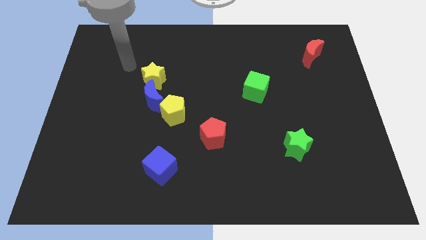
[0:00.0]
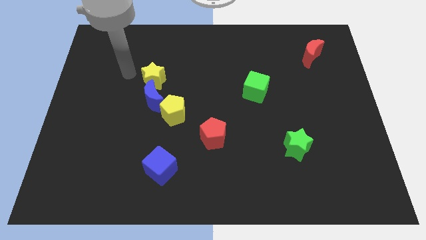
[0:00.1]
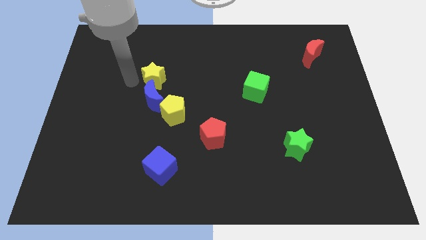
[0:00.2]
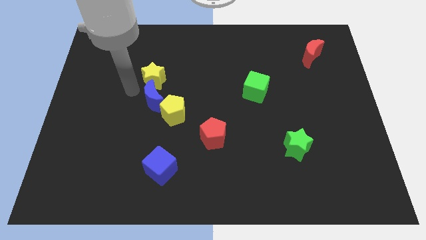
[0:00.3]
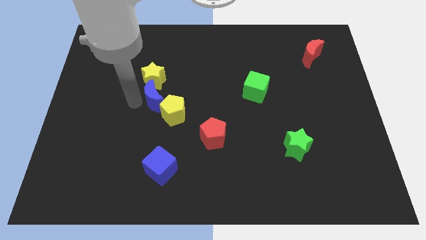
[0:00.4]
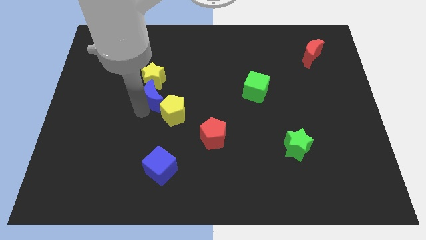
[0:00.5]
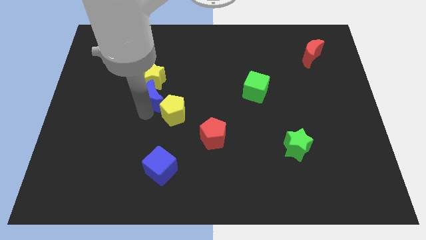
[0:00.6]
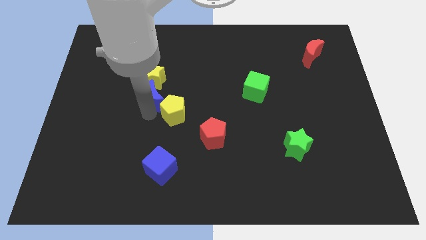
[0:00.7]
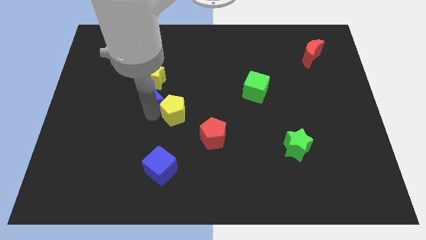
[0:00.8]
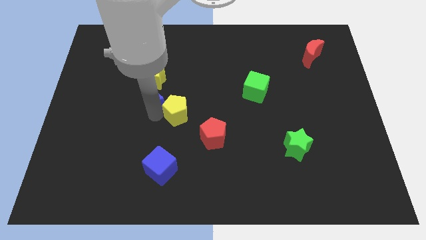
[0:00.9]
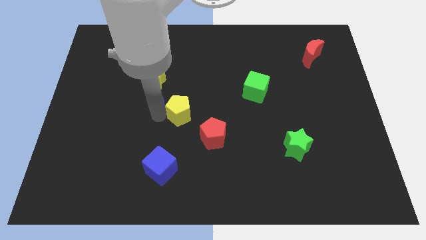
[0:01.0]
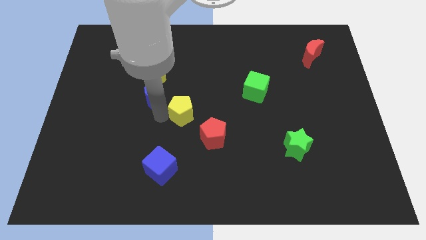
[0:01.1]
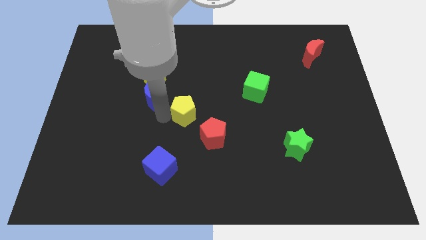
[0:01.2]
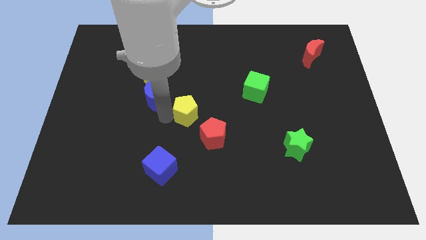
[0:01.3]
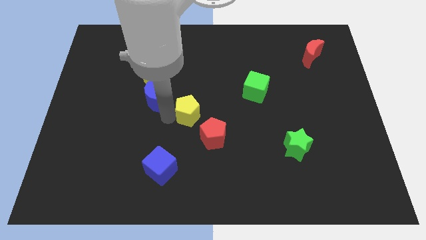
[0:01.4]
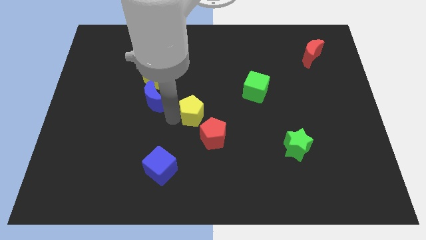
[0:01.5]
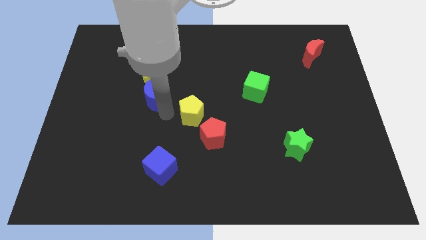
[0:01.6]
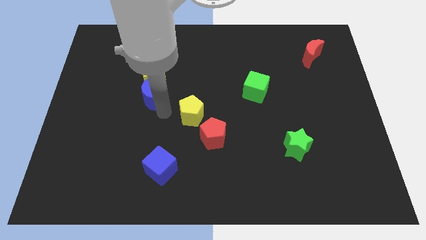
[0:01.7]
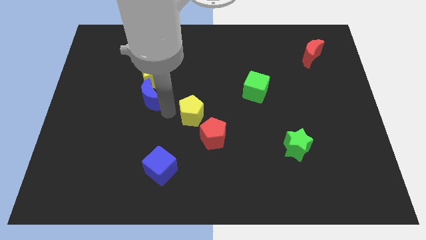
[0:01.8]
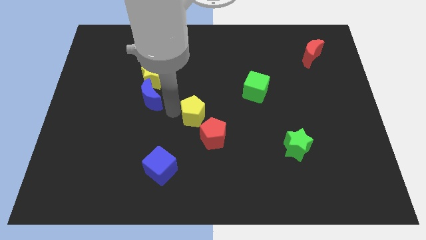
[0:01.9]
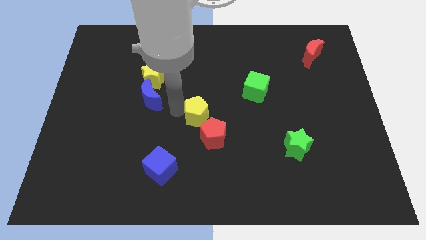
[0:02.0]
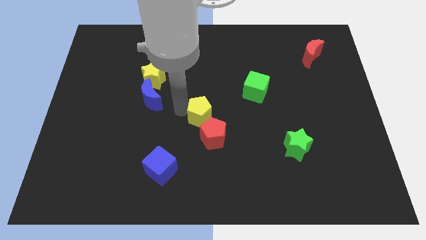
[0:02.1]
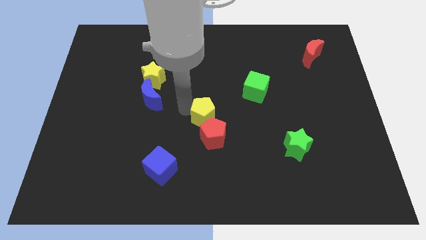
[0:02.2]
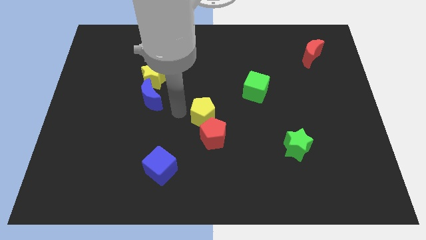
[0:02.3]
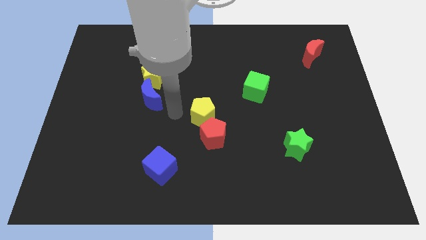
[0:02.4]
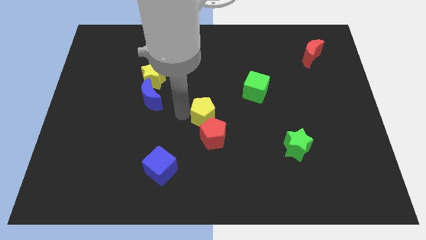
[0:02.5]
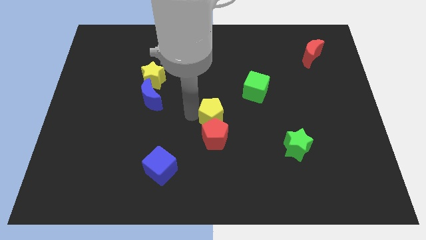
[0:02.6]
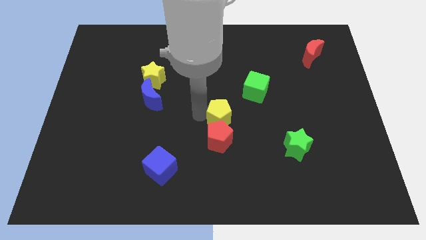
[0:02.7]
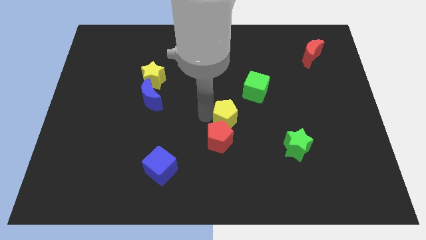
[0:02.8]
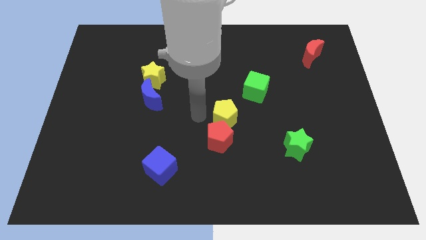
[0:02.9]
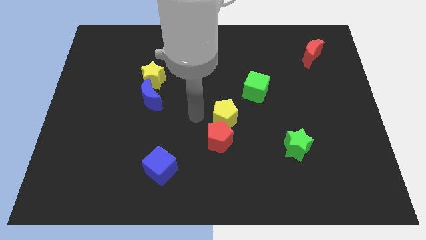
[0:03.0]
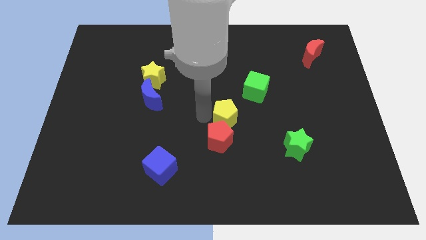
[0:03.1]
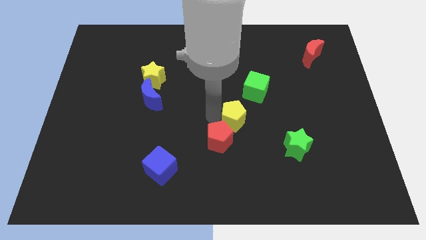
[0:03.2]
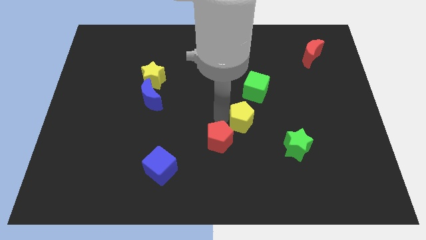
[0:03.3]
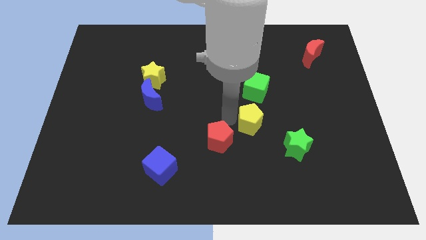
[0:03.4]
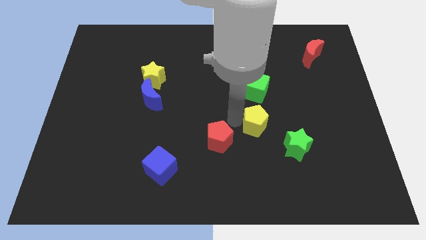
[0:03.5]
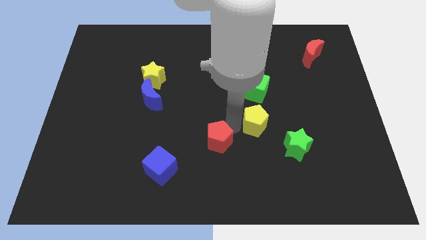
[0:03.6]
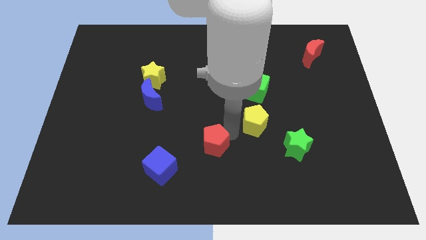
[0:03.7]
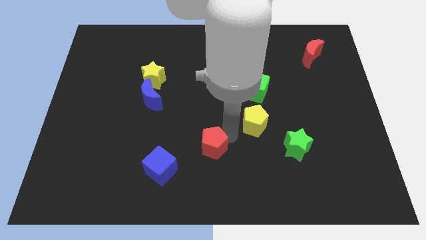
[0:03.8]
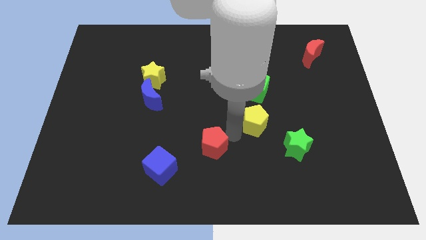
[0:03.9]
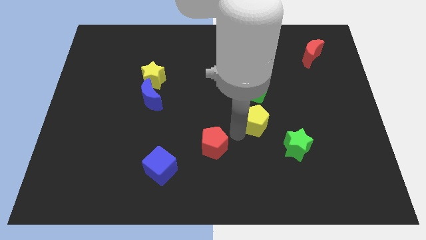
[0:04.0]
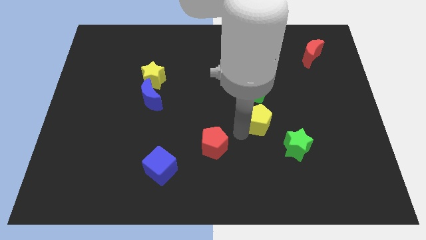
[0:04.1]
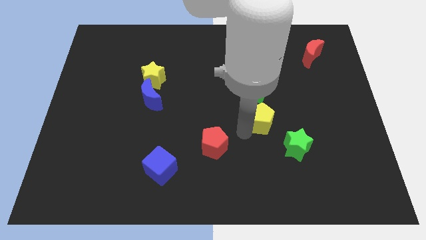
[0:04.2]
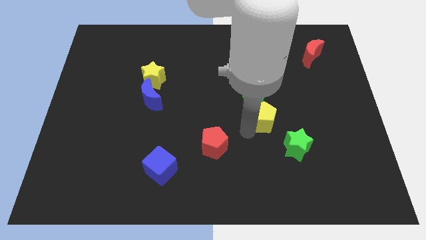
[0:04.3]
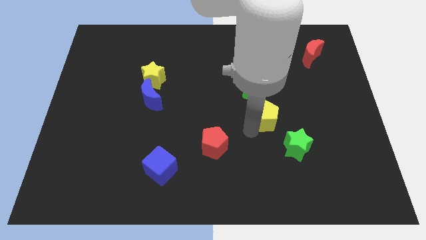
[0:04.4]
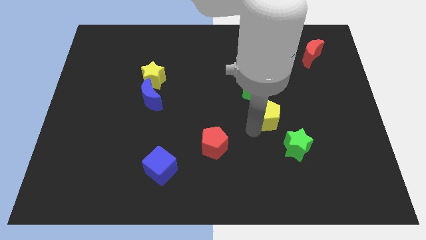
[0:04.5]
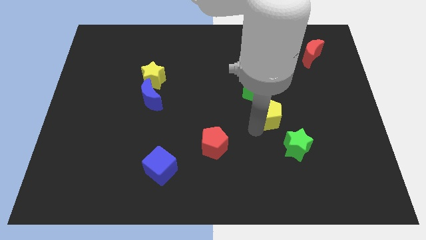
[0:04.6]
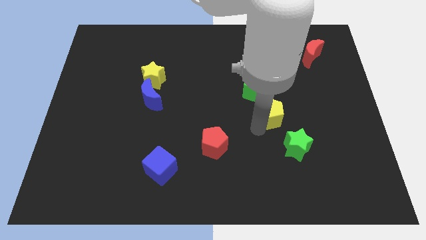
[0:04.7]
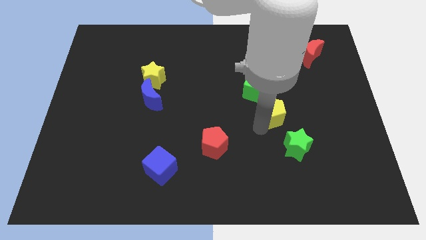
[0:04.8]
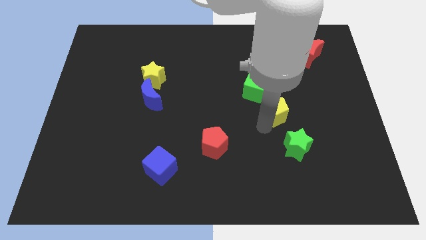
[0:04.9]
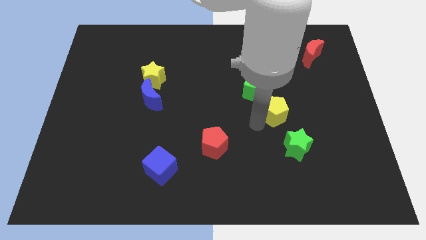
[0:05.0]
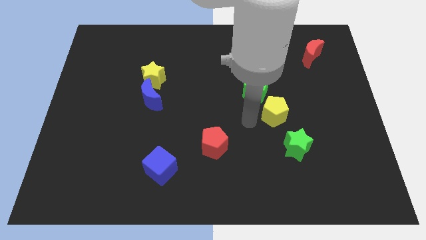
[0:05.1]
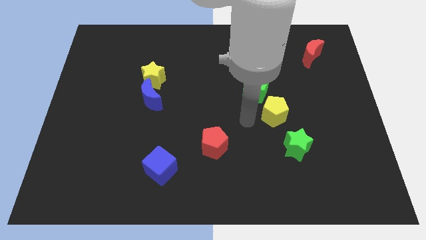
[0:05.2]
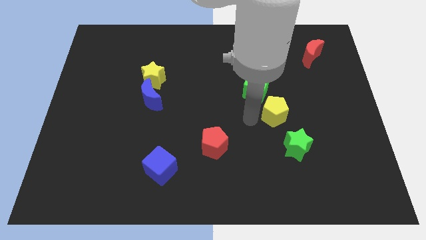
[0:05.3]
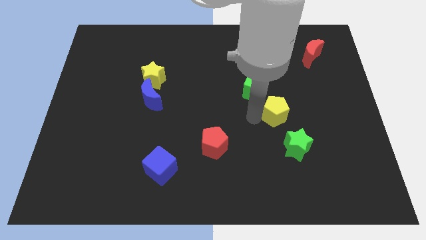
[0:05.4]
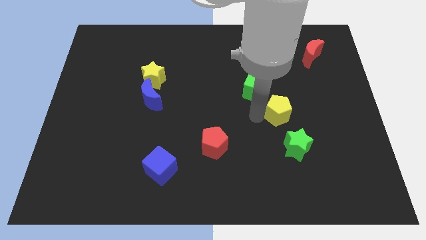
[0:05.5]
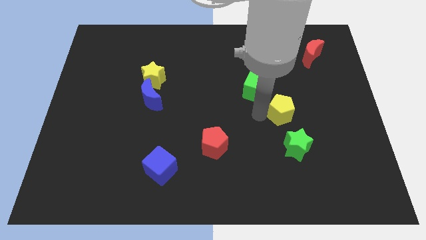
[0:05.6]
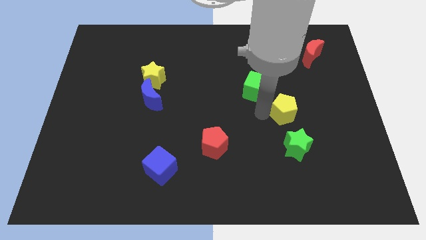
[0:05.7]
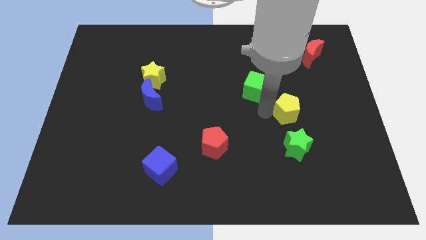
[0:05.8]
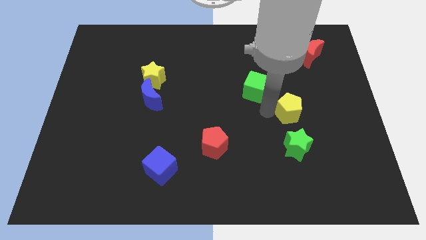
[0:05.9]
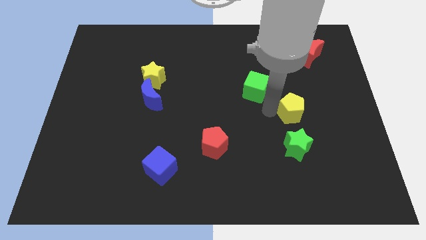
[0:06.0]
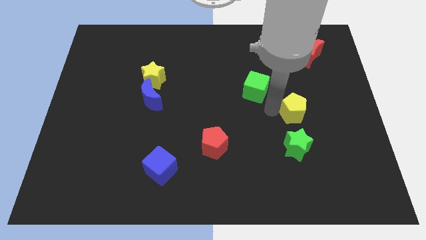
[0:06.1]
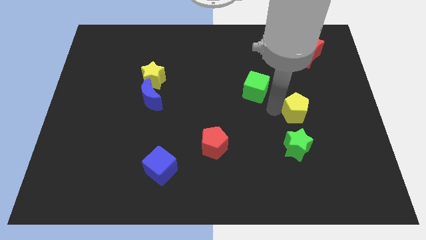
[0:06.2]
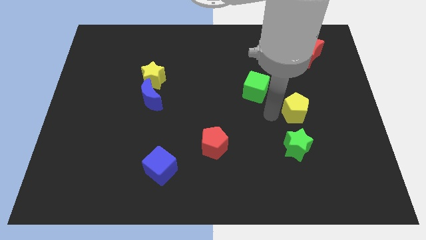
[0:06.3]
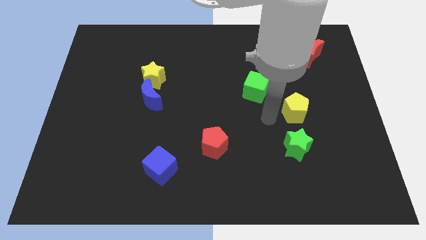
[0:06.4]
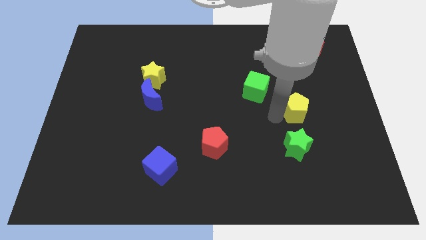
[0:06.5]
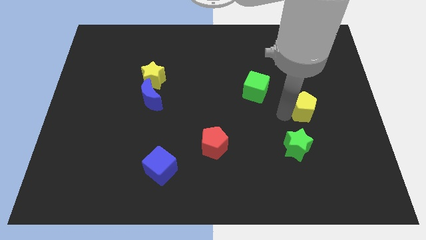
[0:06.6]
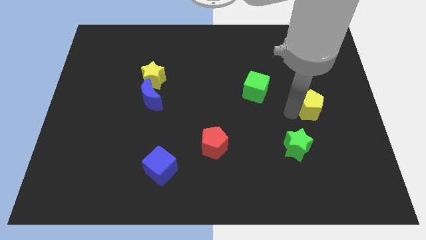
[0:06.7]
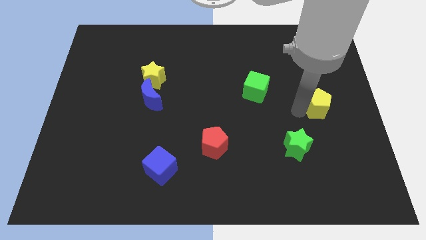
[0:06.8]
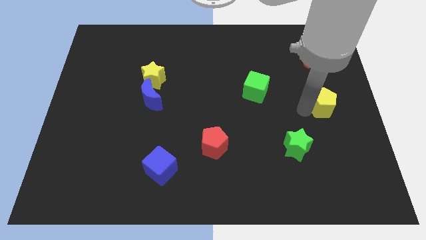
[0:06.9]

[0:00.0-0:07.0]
slide the yellow pentagon to the center right
